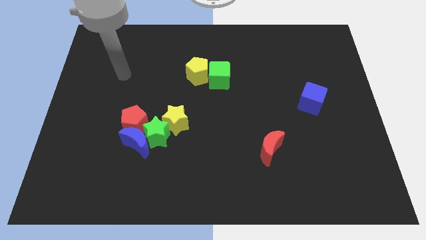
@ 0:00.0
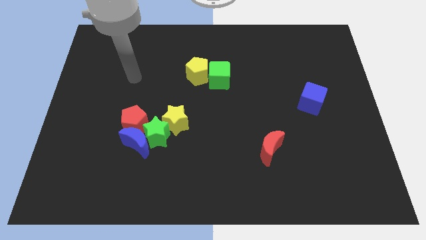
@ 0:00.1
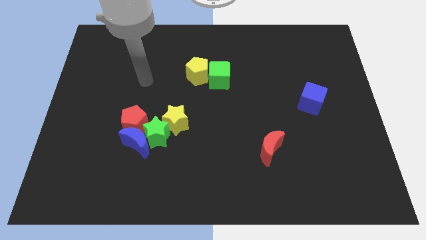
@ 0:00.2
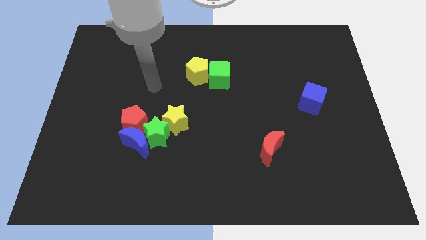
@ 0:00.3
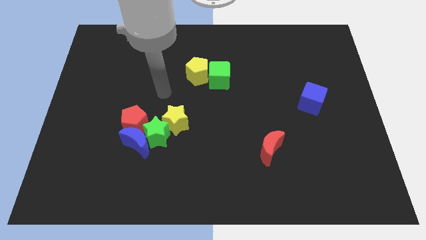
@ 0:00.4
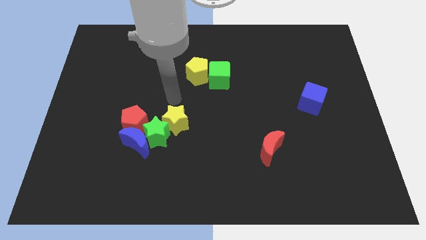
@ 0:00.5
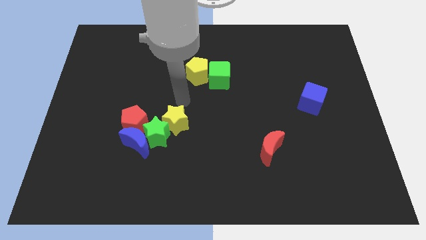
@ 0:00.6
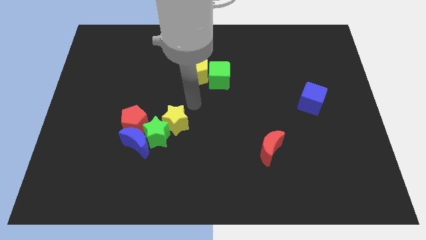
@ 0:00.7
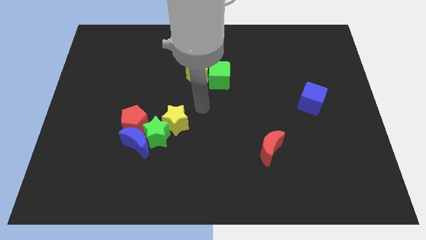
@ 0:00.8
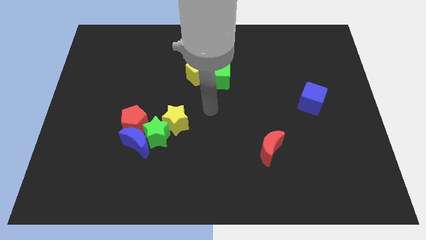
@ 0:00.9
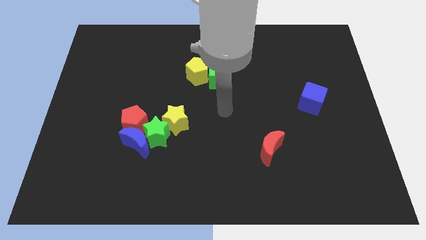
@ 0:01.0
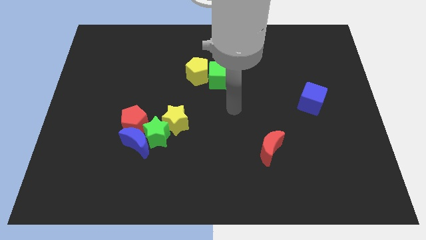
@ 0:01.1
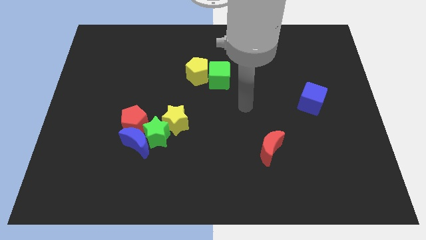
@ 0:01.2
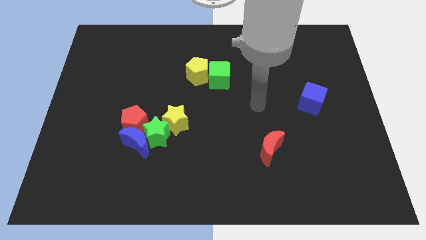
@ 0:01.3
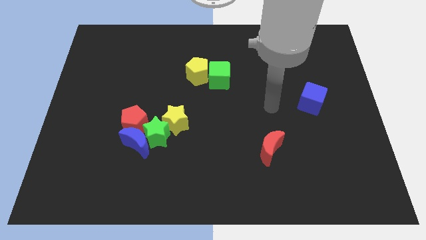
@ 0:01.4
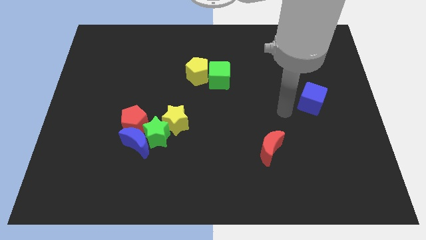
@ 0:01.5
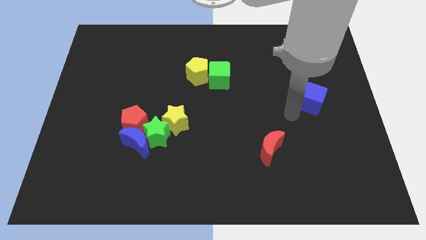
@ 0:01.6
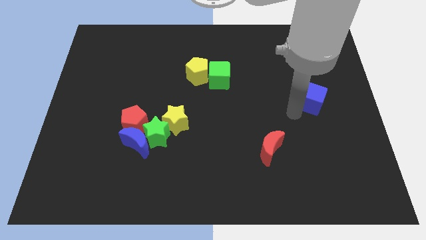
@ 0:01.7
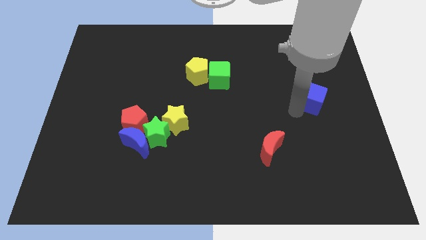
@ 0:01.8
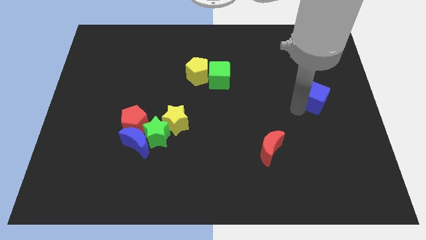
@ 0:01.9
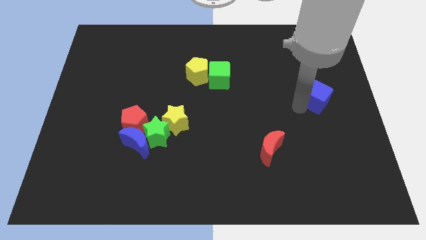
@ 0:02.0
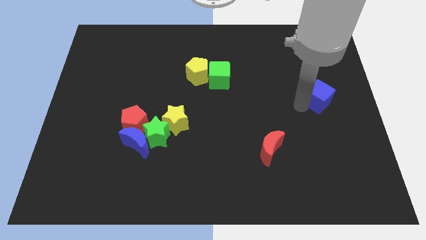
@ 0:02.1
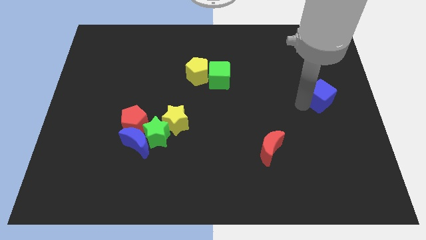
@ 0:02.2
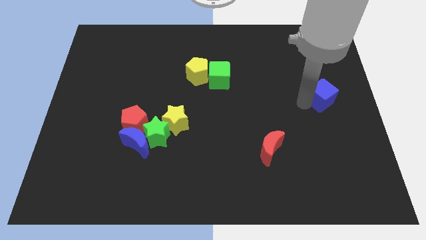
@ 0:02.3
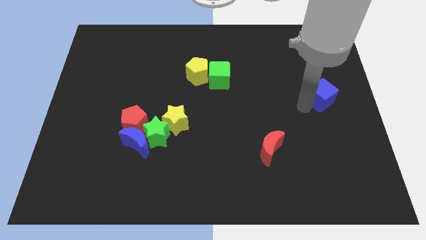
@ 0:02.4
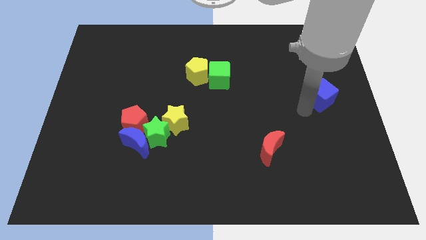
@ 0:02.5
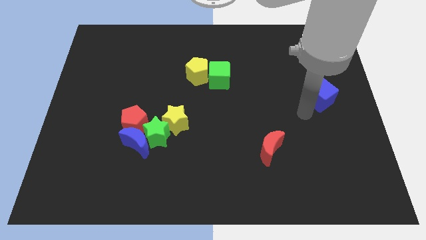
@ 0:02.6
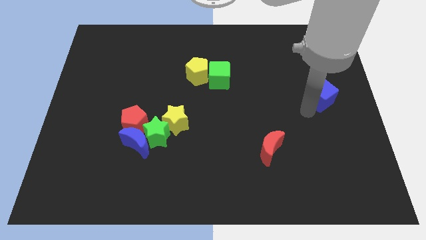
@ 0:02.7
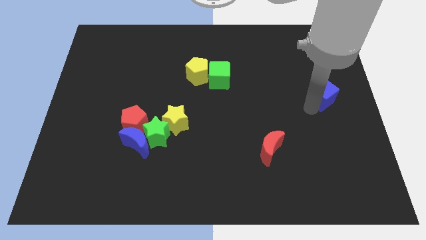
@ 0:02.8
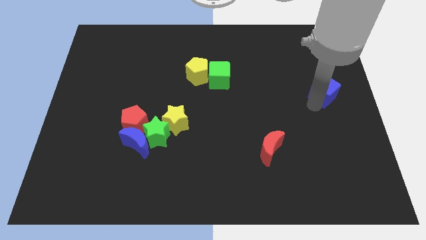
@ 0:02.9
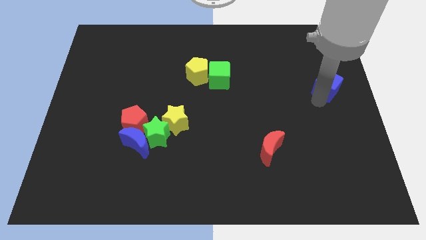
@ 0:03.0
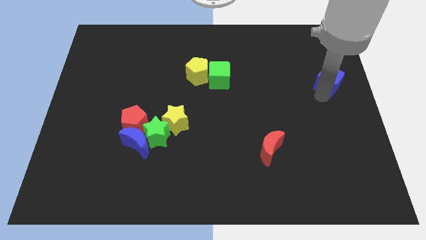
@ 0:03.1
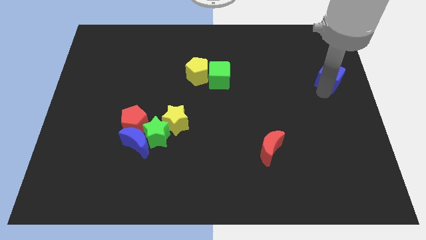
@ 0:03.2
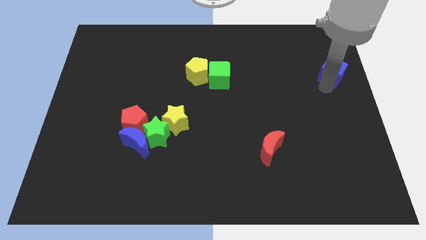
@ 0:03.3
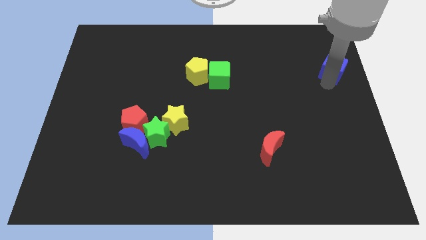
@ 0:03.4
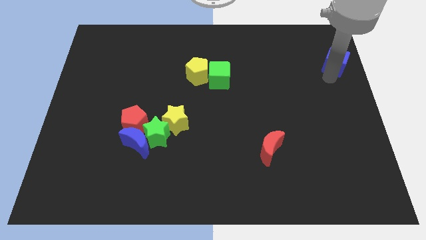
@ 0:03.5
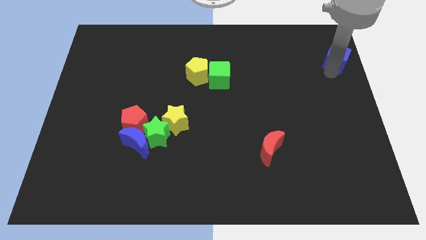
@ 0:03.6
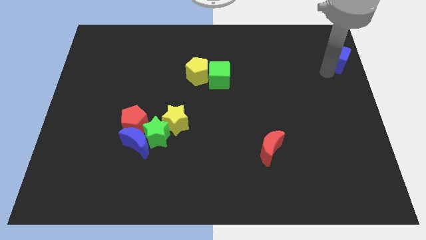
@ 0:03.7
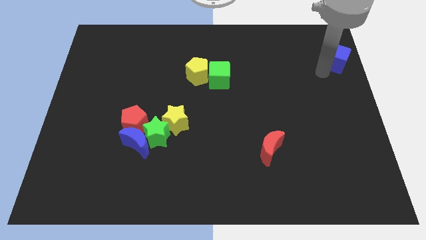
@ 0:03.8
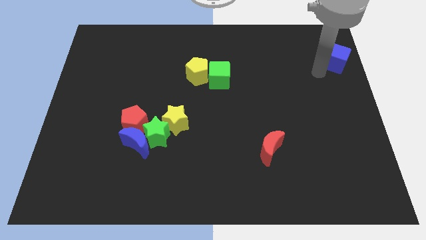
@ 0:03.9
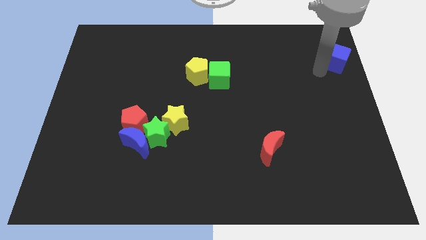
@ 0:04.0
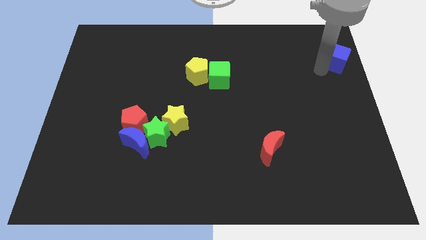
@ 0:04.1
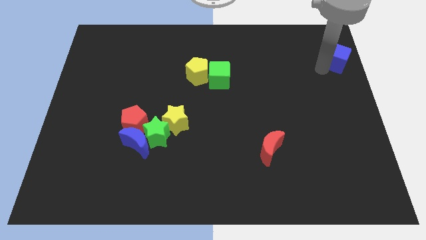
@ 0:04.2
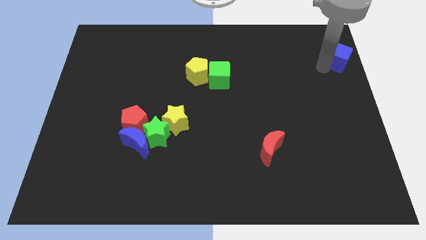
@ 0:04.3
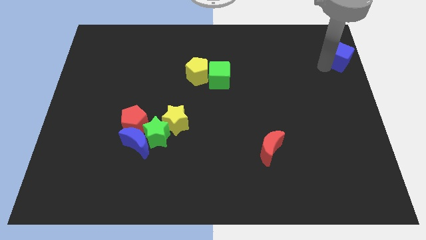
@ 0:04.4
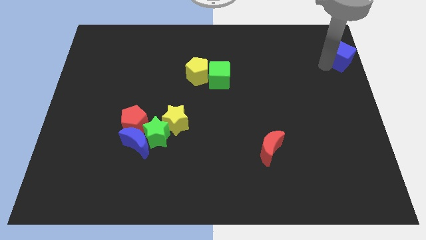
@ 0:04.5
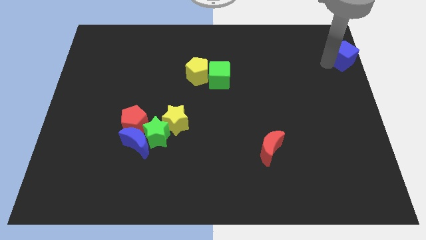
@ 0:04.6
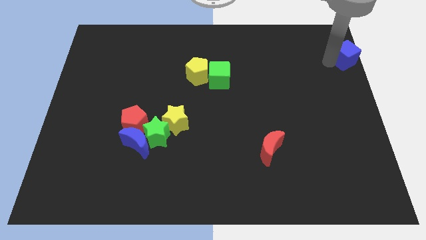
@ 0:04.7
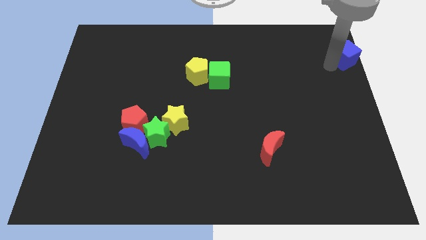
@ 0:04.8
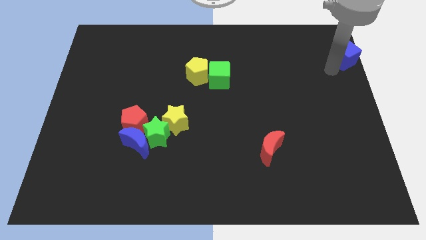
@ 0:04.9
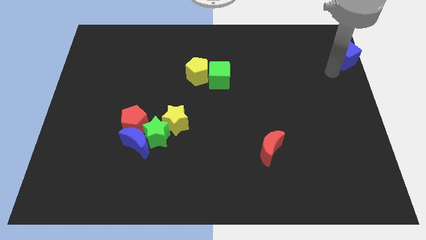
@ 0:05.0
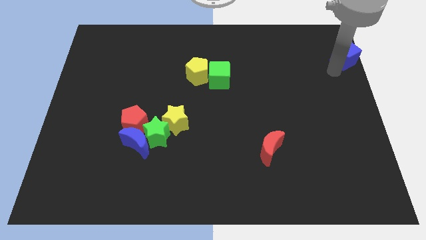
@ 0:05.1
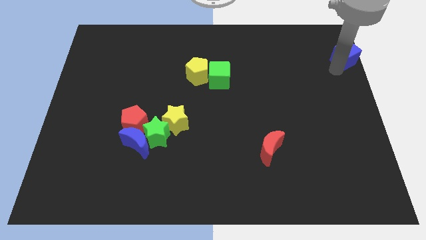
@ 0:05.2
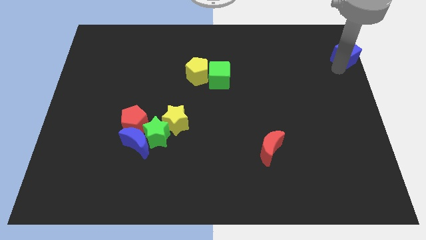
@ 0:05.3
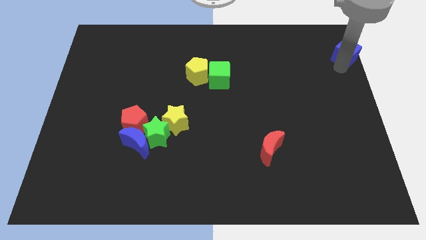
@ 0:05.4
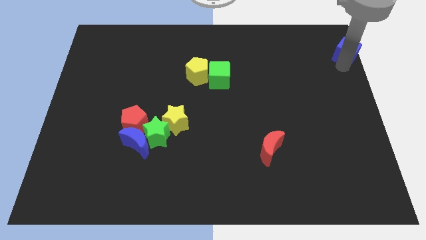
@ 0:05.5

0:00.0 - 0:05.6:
push the blue cube to the top right
